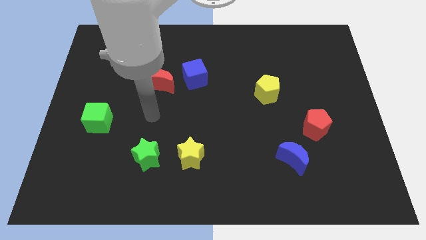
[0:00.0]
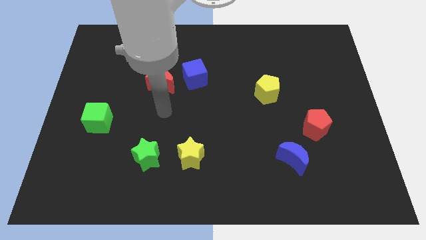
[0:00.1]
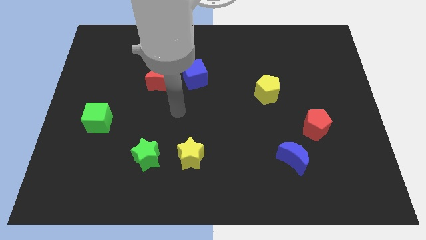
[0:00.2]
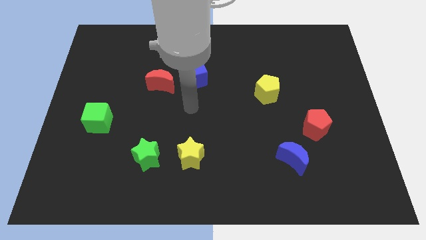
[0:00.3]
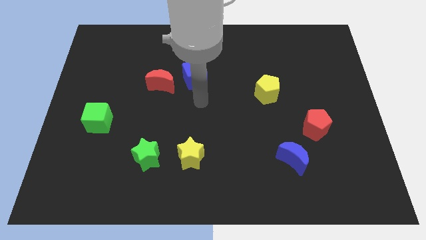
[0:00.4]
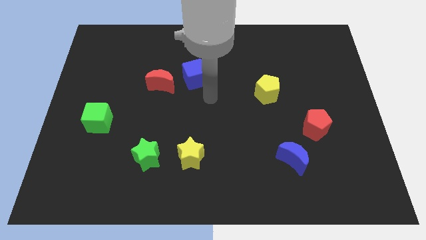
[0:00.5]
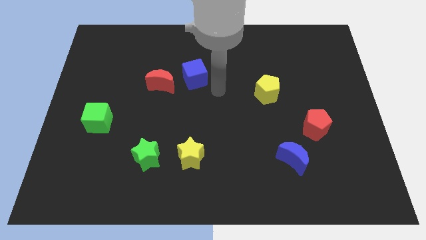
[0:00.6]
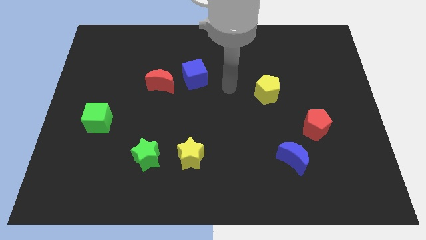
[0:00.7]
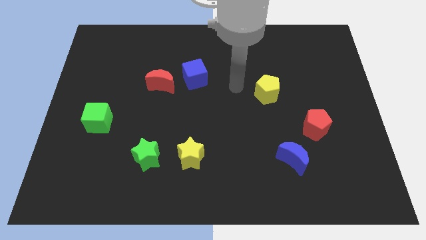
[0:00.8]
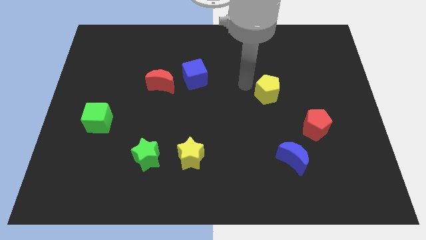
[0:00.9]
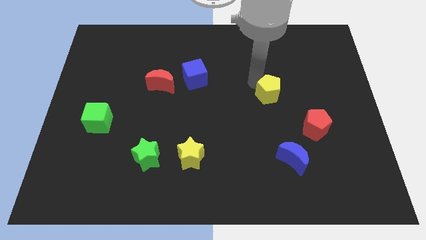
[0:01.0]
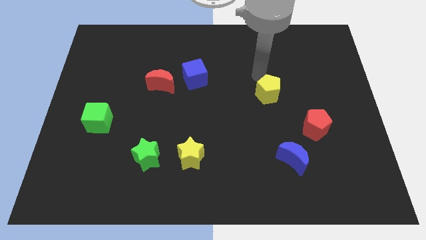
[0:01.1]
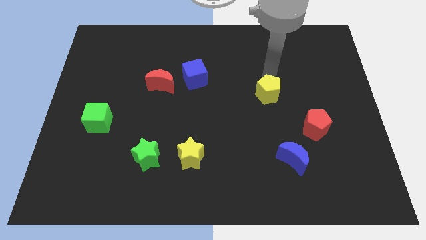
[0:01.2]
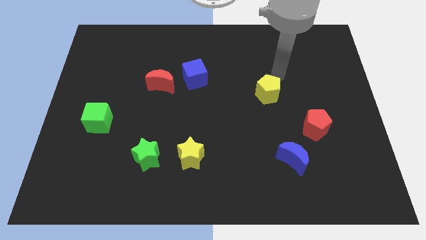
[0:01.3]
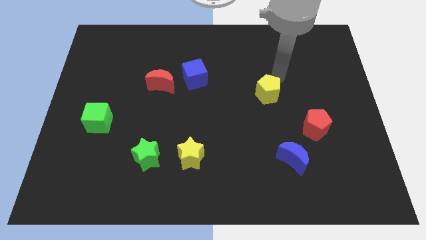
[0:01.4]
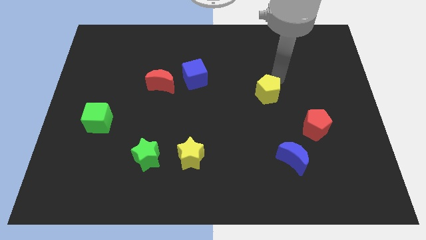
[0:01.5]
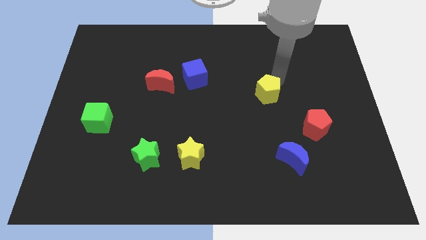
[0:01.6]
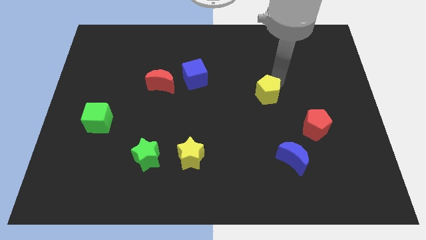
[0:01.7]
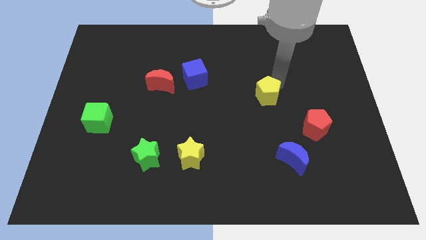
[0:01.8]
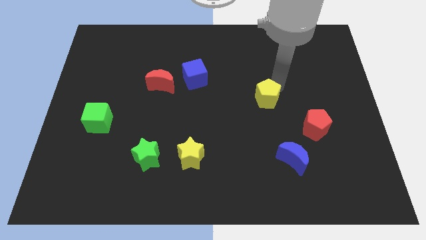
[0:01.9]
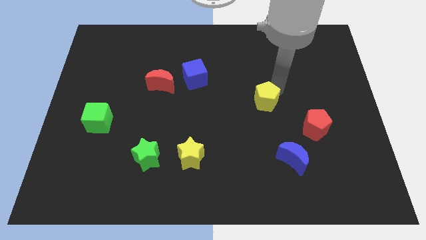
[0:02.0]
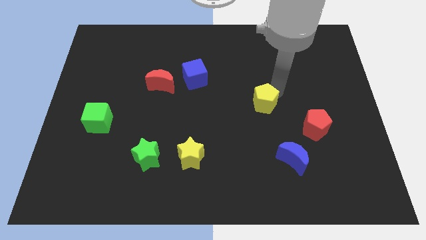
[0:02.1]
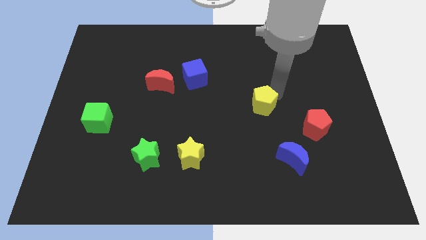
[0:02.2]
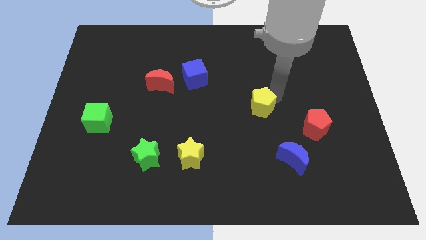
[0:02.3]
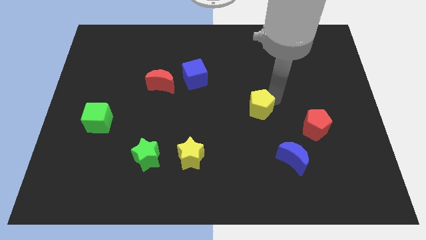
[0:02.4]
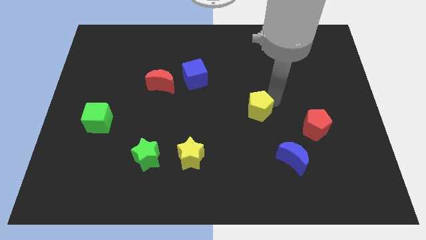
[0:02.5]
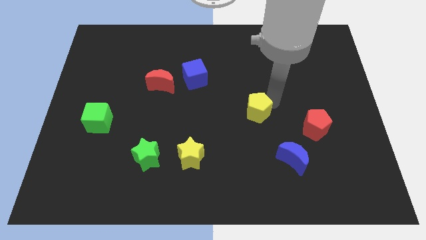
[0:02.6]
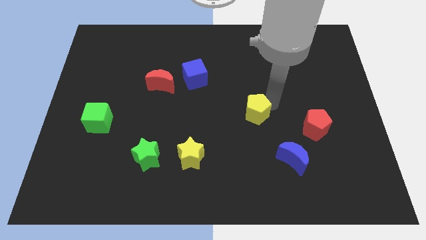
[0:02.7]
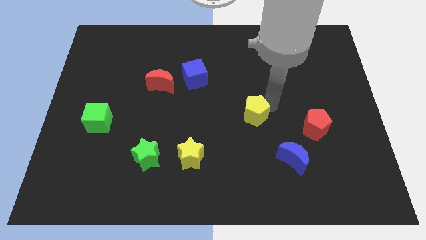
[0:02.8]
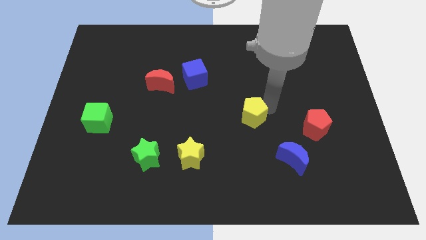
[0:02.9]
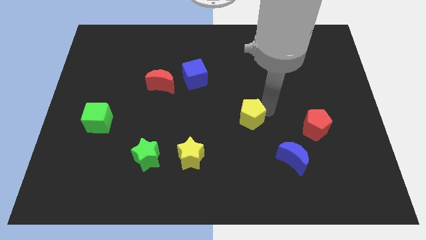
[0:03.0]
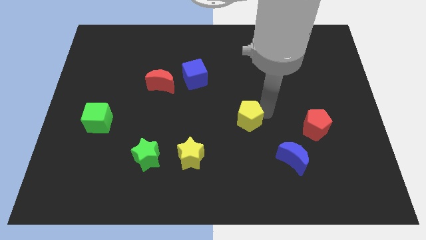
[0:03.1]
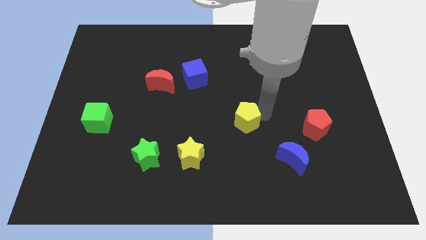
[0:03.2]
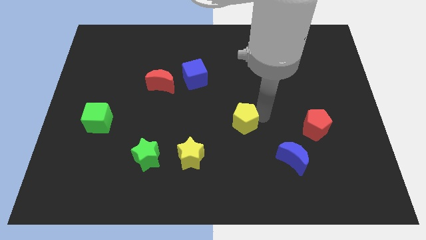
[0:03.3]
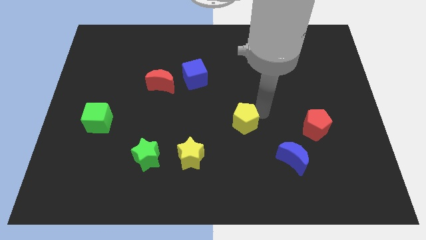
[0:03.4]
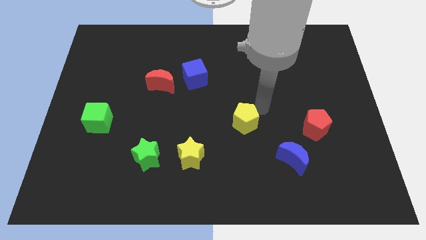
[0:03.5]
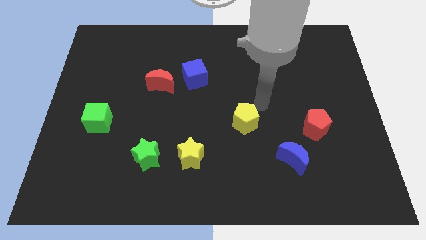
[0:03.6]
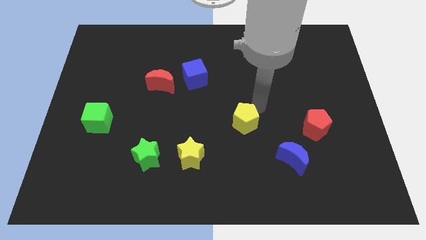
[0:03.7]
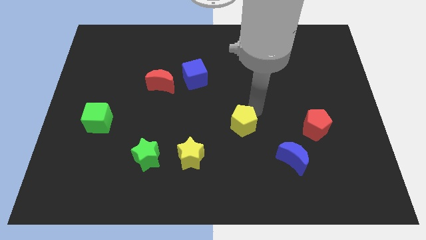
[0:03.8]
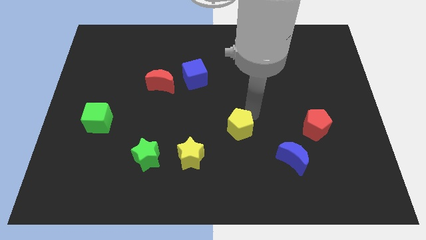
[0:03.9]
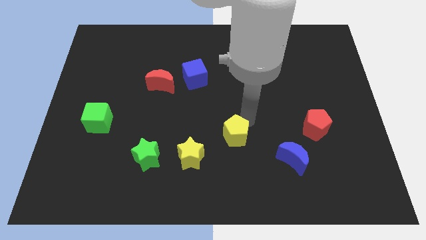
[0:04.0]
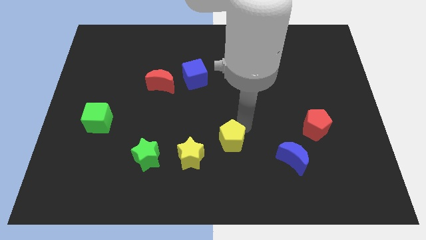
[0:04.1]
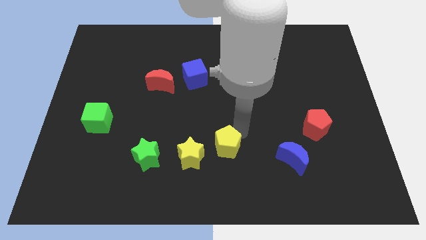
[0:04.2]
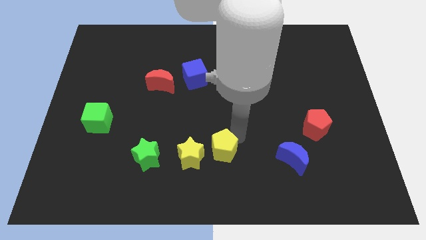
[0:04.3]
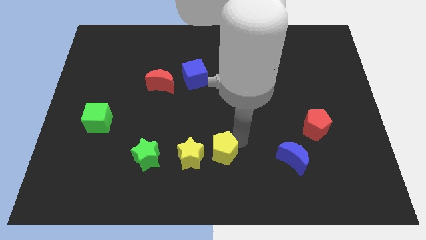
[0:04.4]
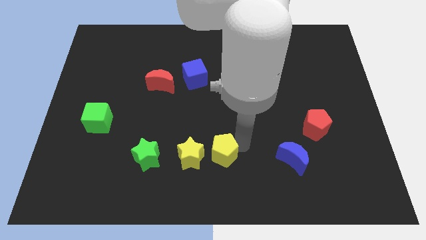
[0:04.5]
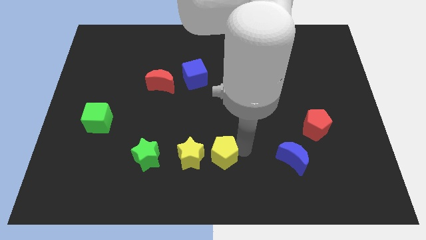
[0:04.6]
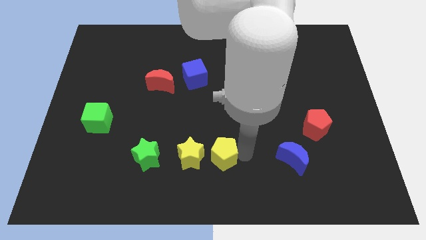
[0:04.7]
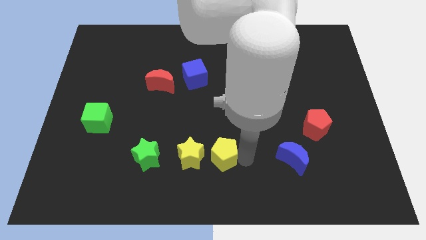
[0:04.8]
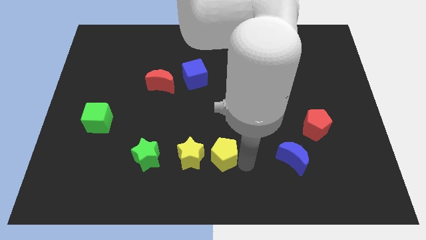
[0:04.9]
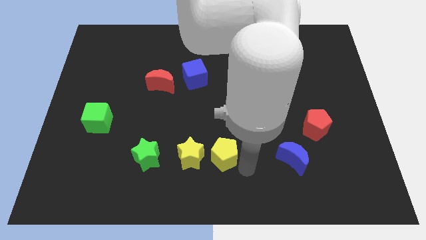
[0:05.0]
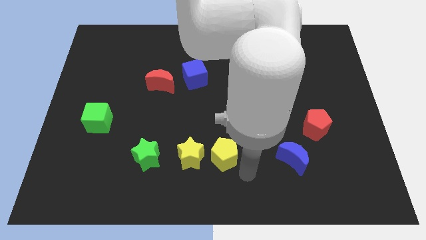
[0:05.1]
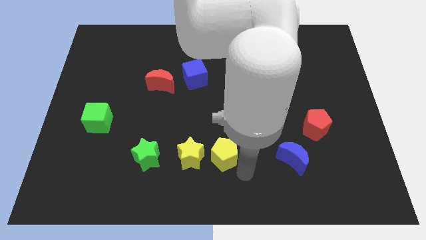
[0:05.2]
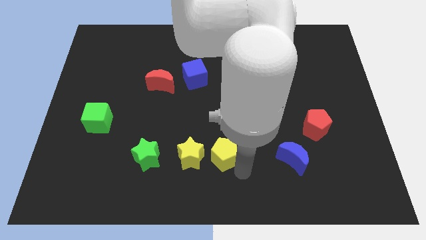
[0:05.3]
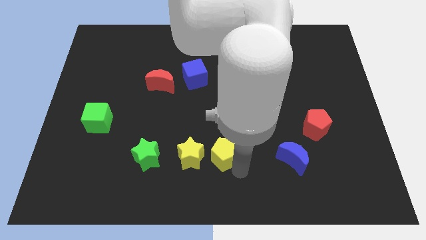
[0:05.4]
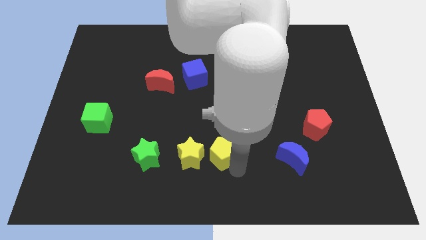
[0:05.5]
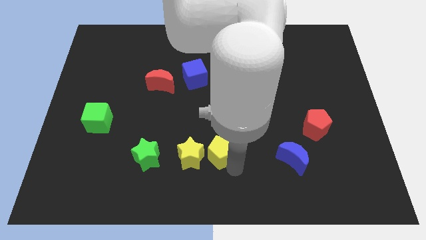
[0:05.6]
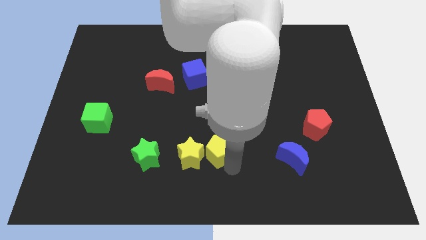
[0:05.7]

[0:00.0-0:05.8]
slide the yellow pentagon towards the yellow star

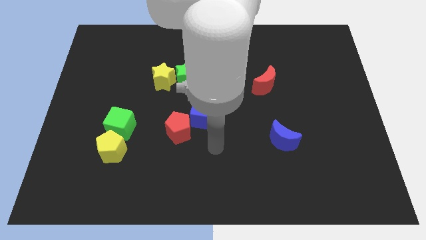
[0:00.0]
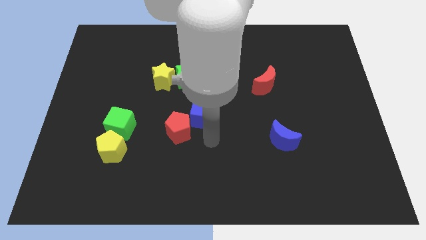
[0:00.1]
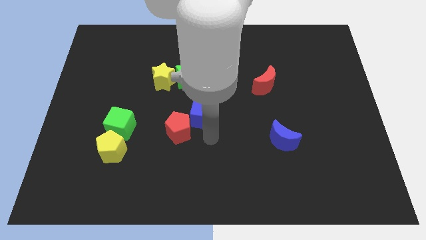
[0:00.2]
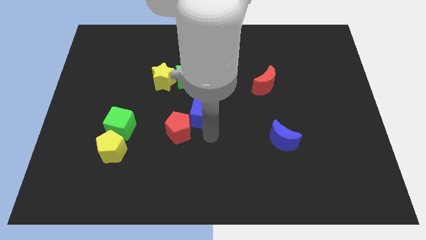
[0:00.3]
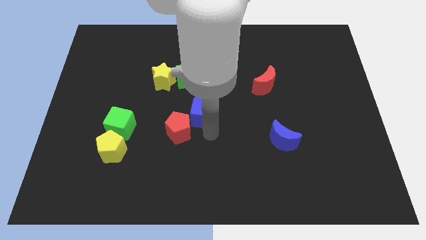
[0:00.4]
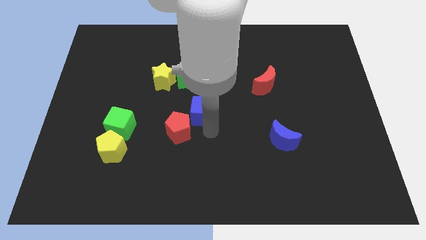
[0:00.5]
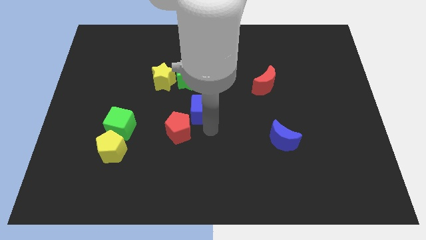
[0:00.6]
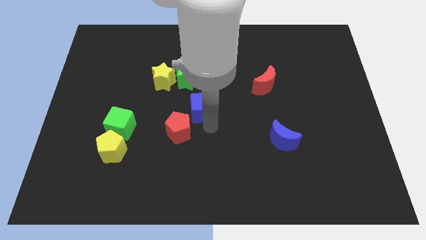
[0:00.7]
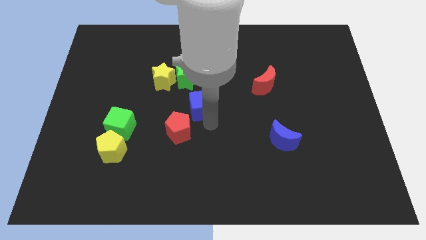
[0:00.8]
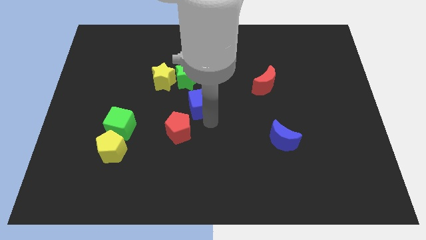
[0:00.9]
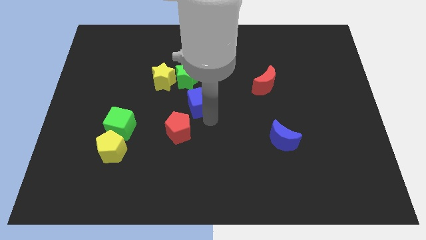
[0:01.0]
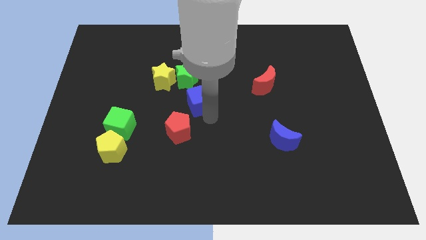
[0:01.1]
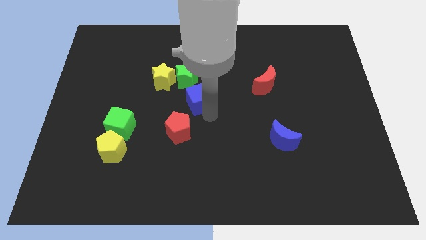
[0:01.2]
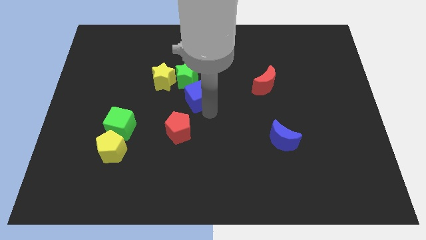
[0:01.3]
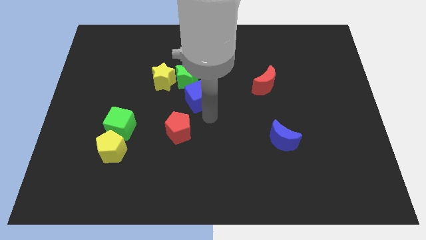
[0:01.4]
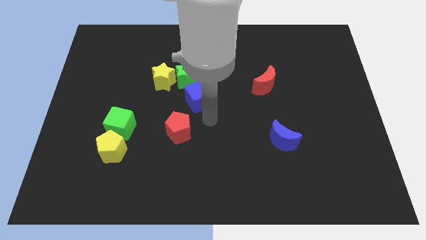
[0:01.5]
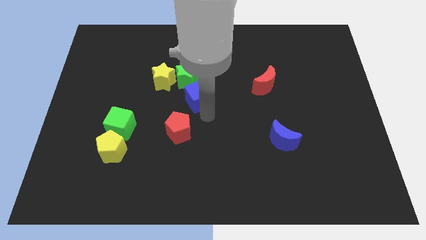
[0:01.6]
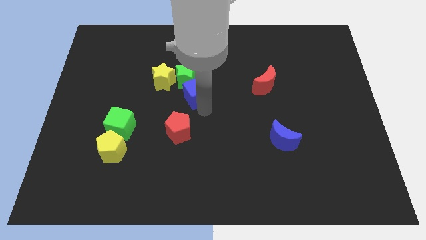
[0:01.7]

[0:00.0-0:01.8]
push the blue cube next to the green star
